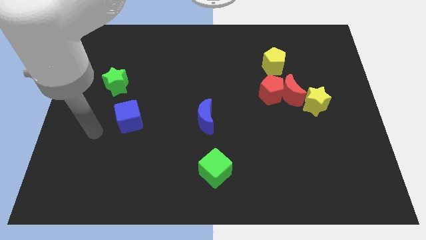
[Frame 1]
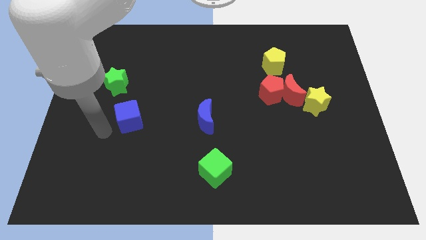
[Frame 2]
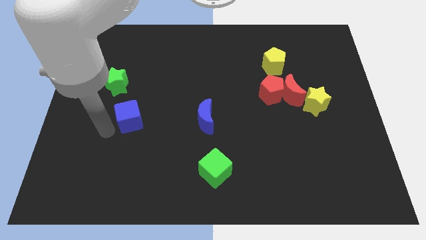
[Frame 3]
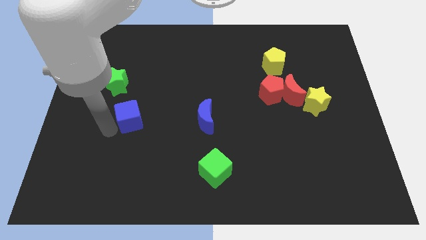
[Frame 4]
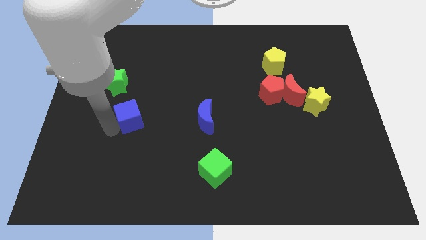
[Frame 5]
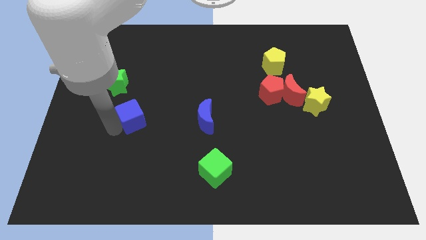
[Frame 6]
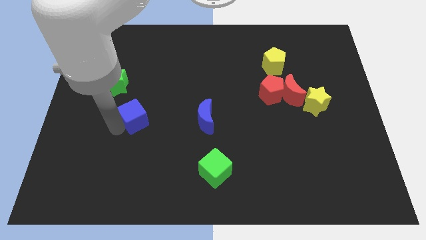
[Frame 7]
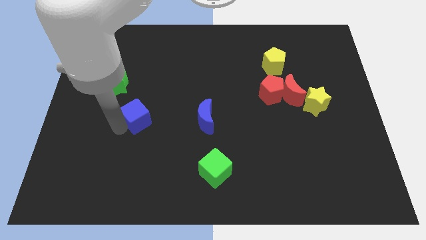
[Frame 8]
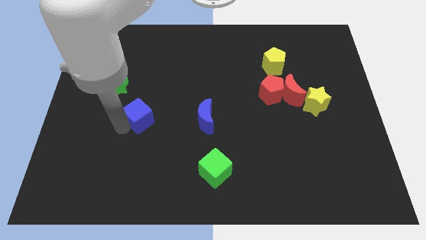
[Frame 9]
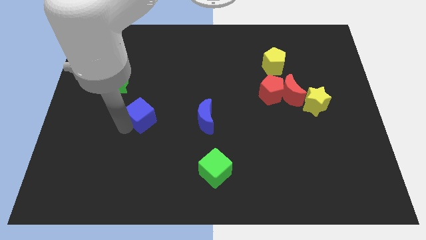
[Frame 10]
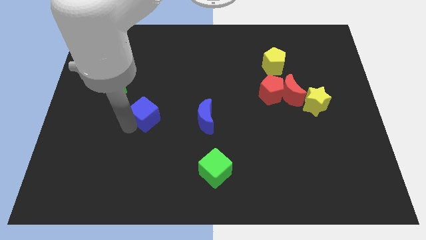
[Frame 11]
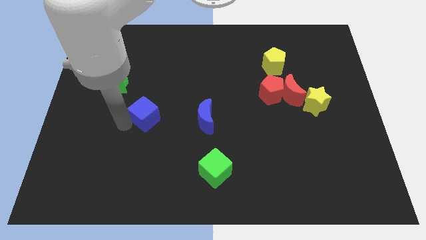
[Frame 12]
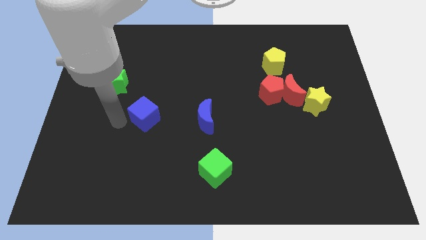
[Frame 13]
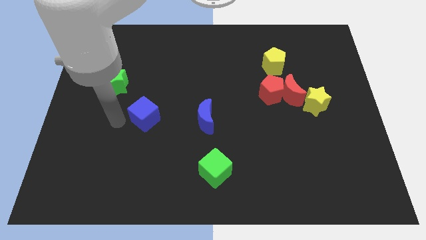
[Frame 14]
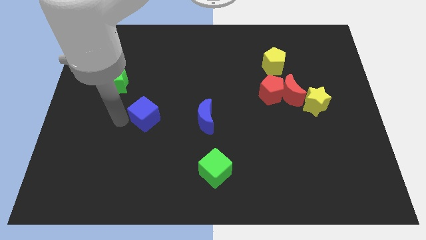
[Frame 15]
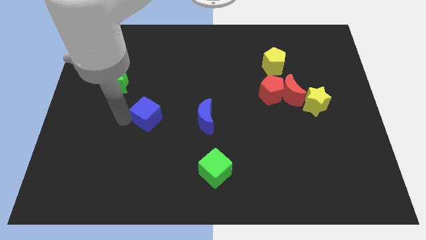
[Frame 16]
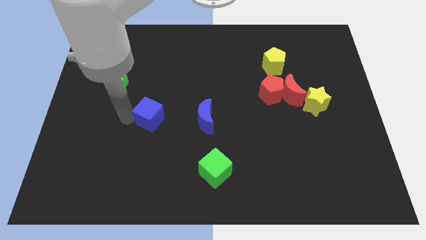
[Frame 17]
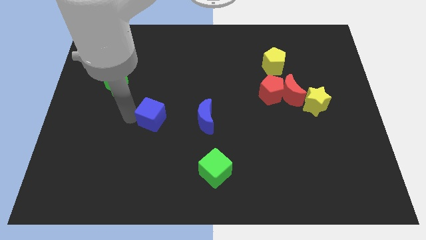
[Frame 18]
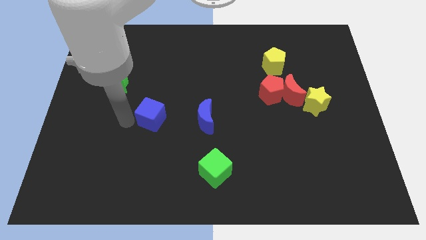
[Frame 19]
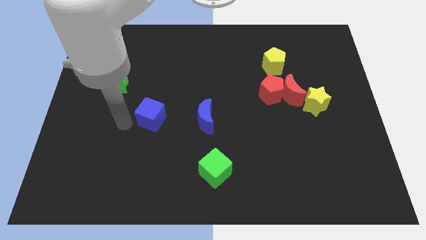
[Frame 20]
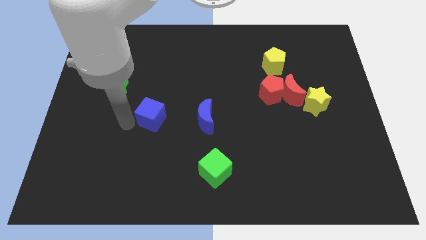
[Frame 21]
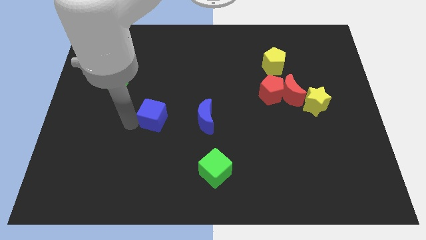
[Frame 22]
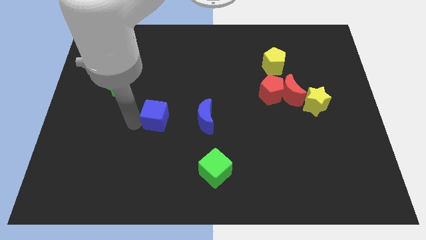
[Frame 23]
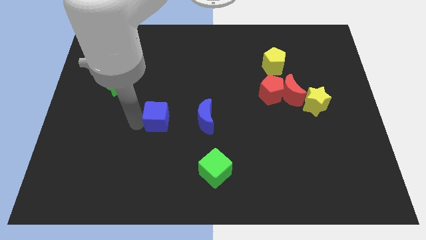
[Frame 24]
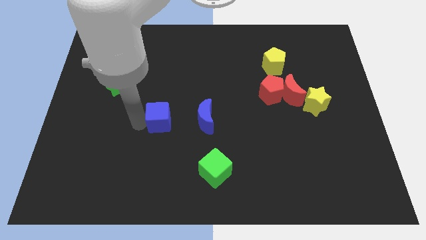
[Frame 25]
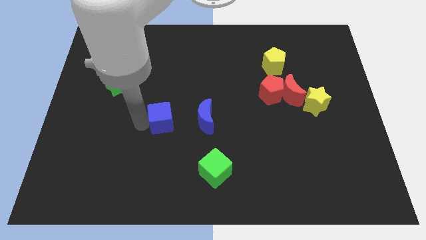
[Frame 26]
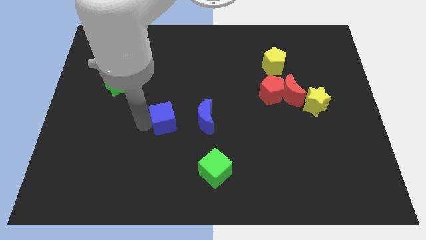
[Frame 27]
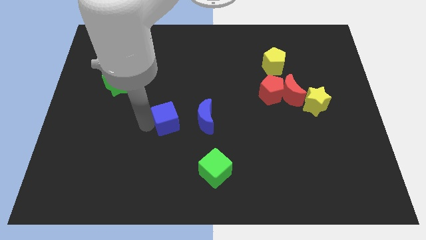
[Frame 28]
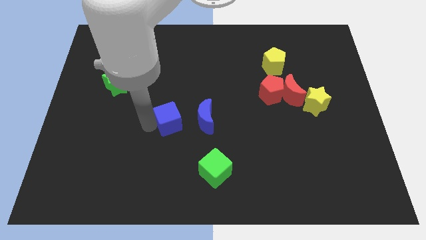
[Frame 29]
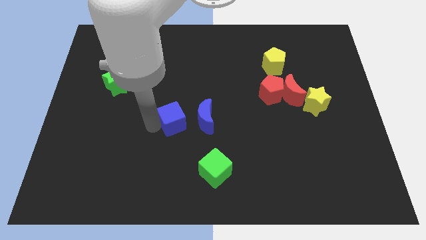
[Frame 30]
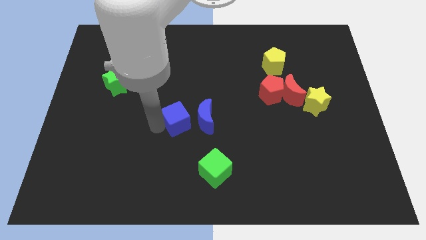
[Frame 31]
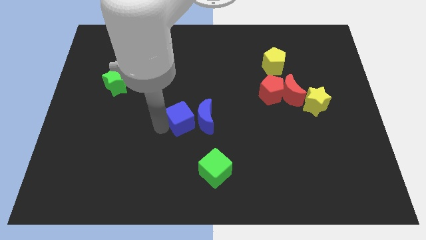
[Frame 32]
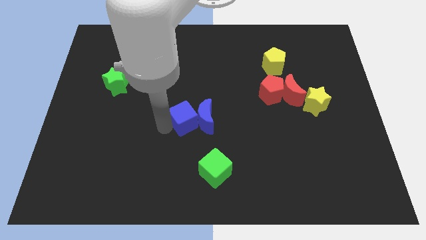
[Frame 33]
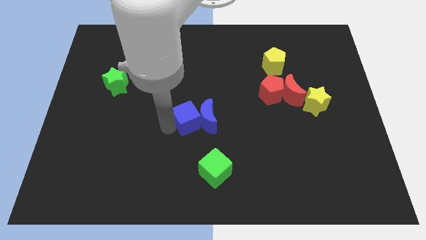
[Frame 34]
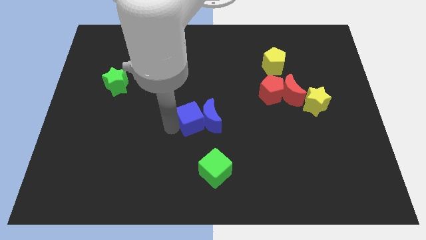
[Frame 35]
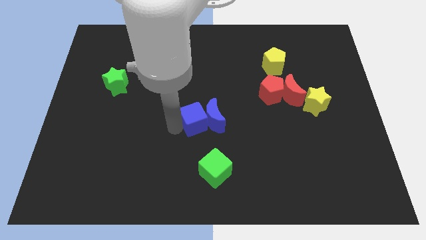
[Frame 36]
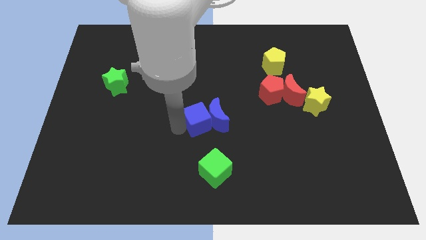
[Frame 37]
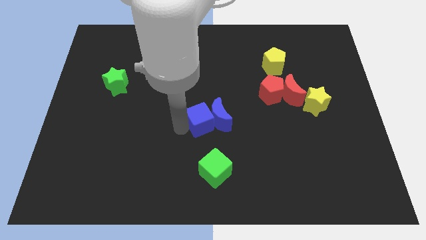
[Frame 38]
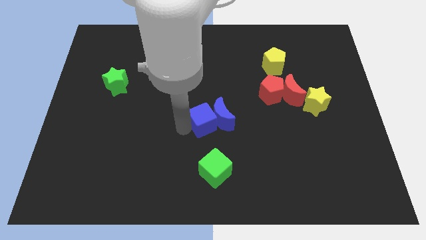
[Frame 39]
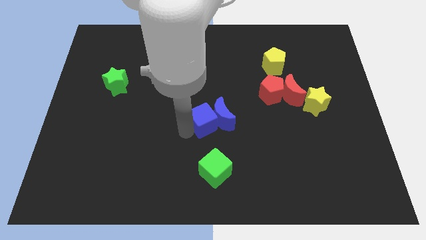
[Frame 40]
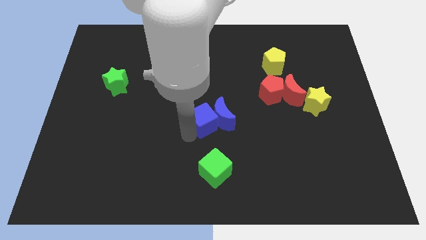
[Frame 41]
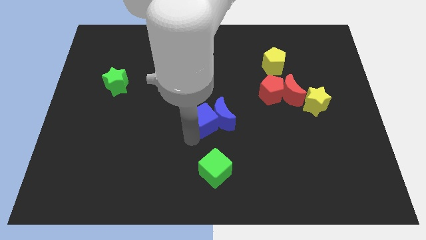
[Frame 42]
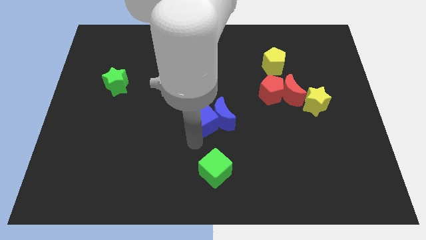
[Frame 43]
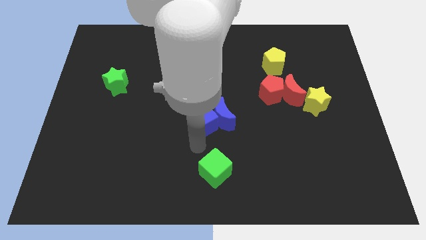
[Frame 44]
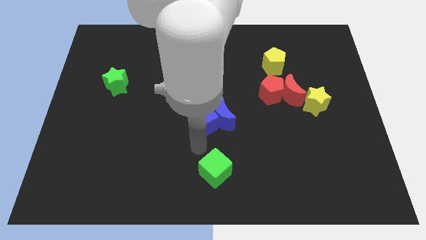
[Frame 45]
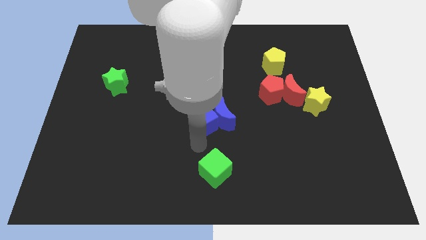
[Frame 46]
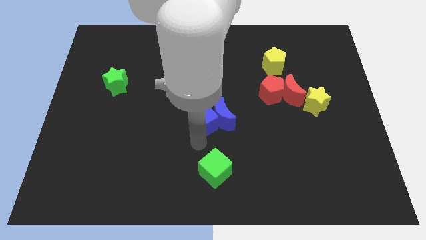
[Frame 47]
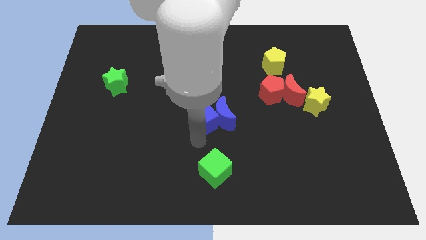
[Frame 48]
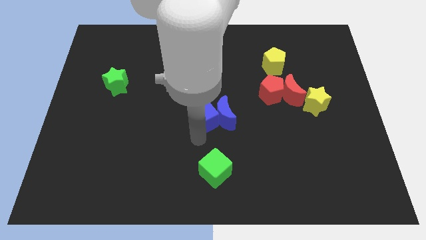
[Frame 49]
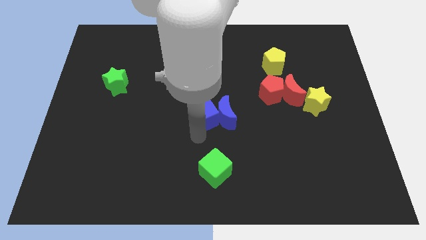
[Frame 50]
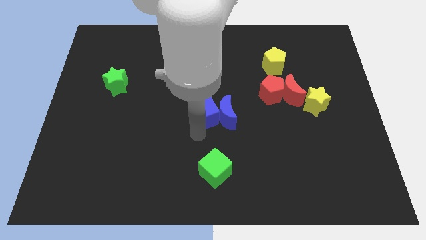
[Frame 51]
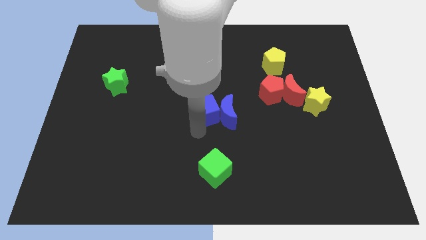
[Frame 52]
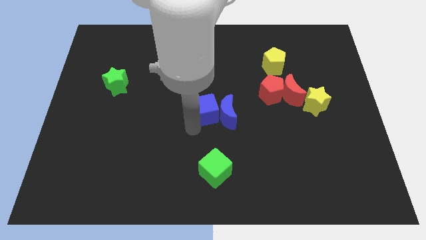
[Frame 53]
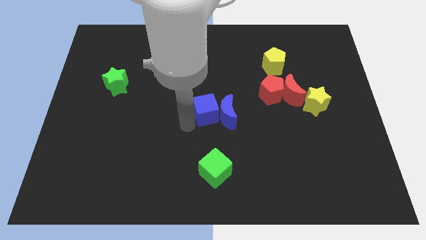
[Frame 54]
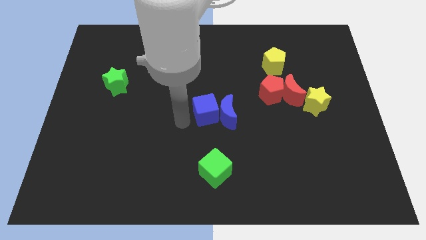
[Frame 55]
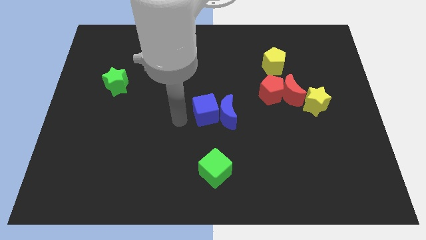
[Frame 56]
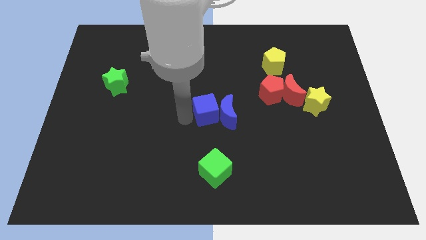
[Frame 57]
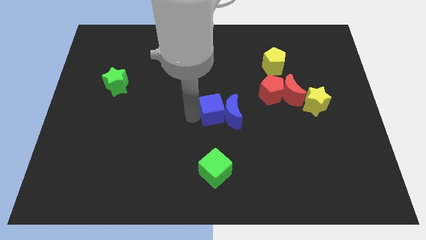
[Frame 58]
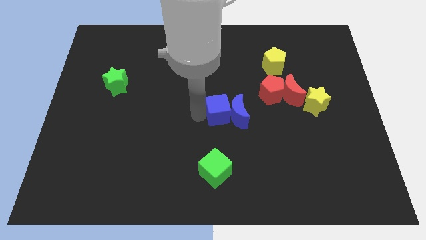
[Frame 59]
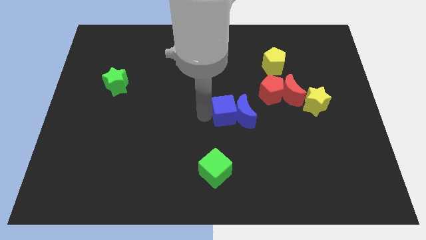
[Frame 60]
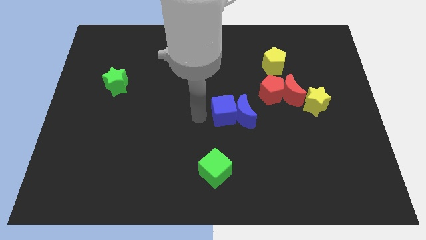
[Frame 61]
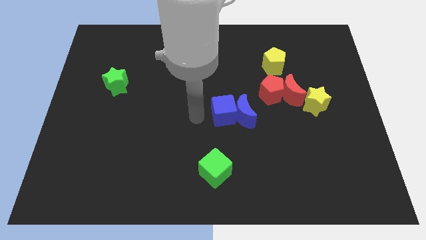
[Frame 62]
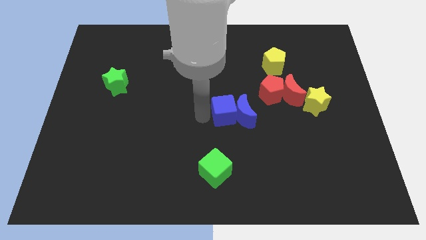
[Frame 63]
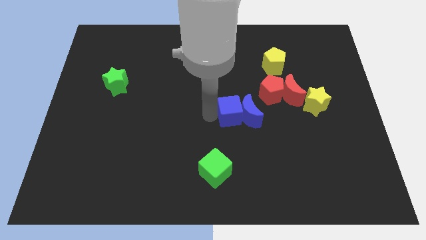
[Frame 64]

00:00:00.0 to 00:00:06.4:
push the blue cube to the bottom left of the red pentagon
